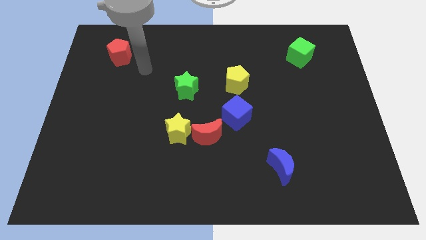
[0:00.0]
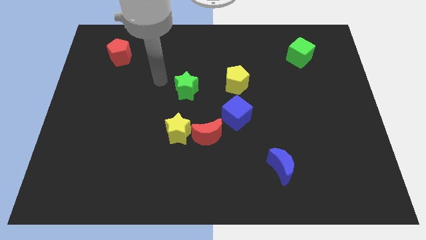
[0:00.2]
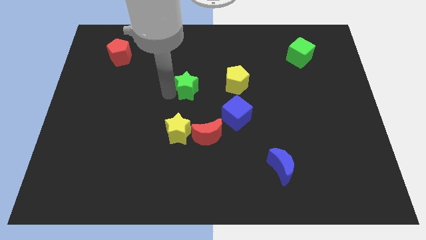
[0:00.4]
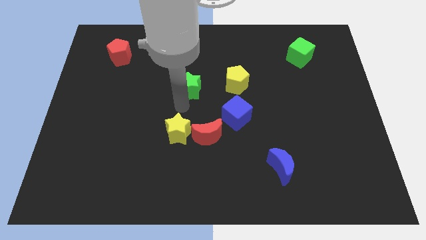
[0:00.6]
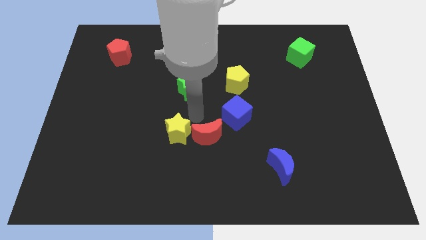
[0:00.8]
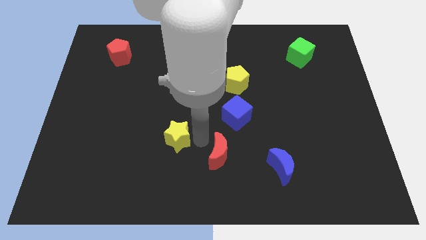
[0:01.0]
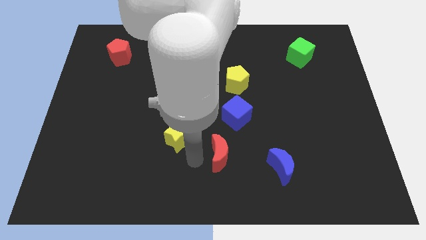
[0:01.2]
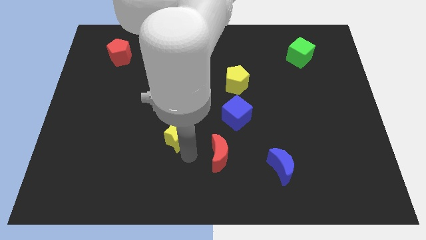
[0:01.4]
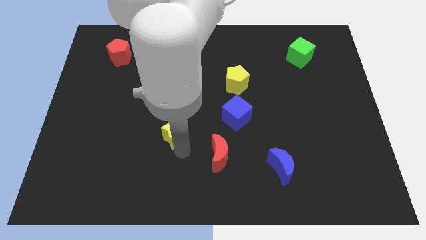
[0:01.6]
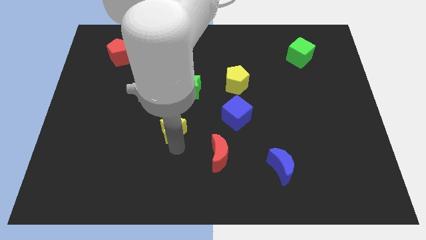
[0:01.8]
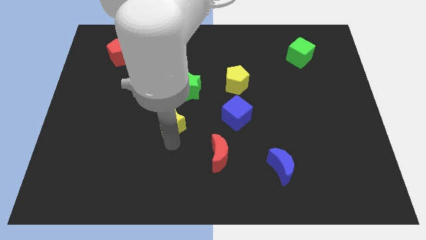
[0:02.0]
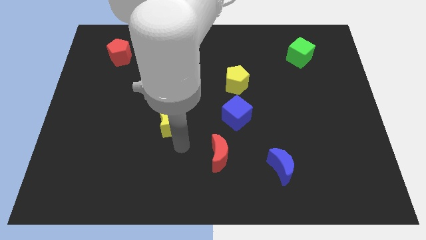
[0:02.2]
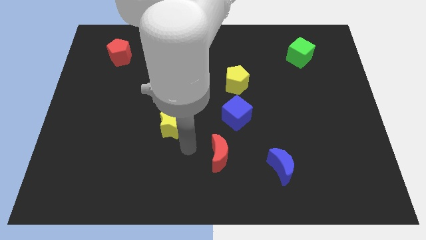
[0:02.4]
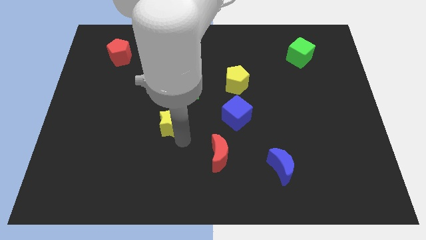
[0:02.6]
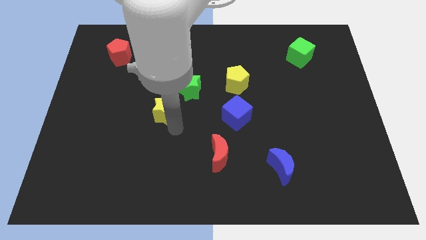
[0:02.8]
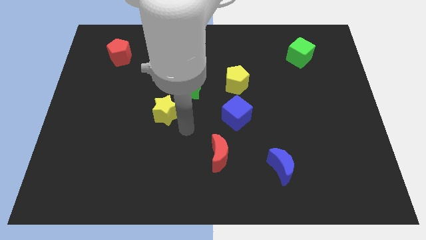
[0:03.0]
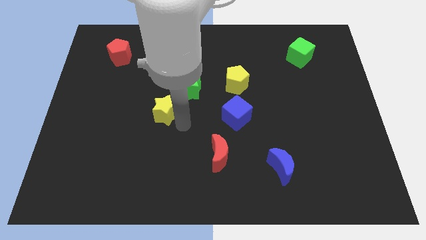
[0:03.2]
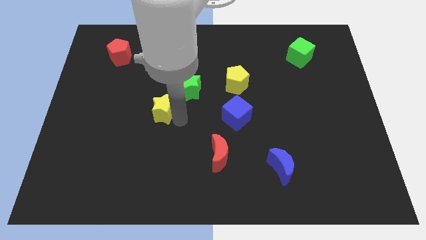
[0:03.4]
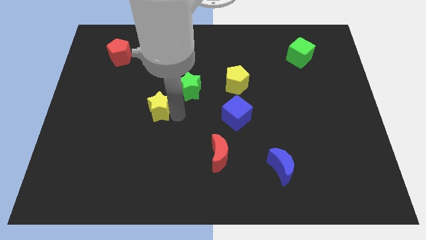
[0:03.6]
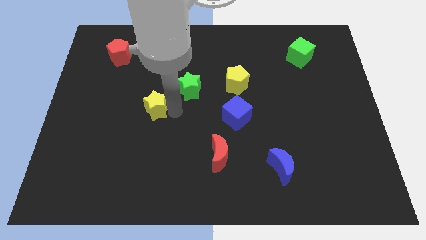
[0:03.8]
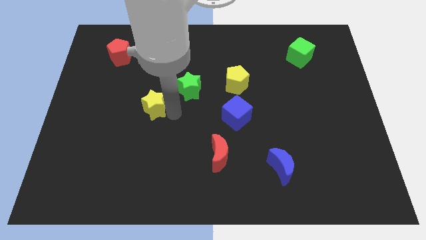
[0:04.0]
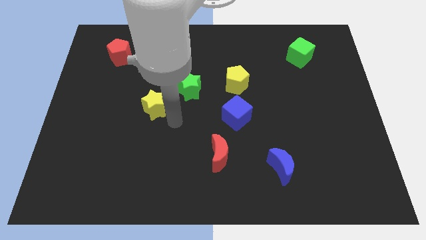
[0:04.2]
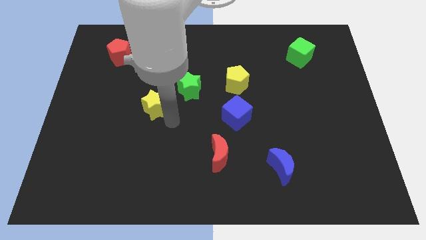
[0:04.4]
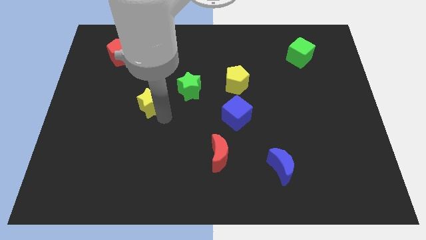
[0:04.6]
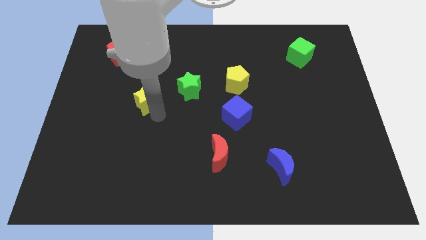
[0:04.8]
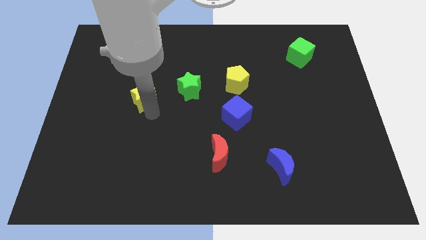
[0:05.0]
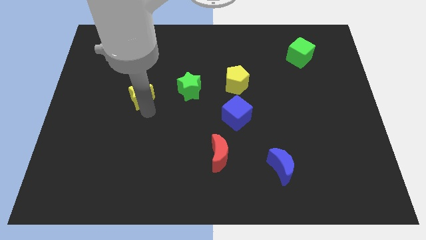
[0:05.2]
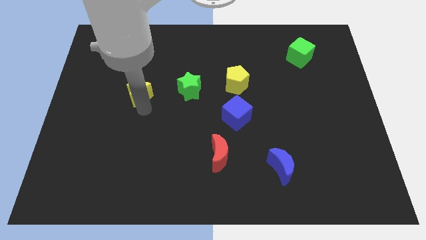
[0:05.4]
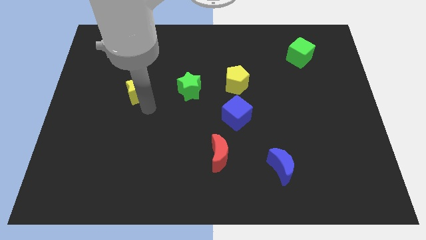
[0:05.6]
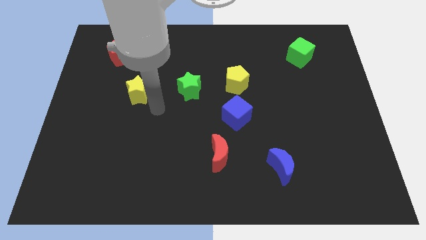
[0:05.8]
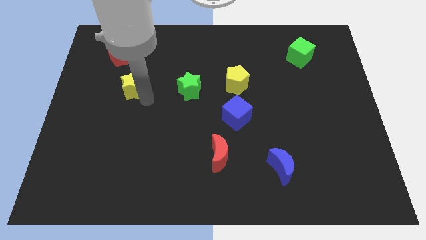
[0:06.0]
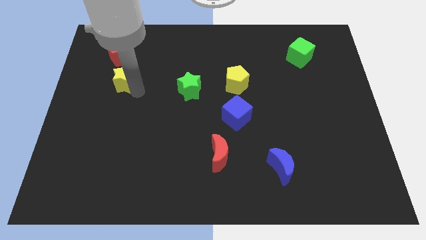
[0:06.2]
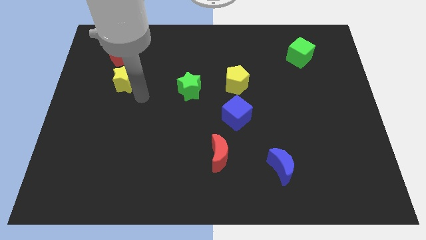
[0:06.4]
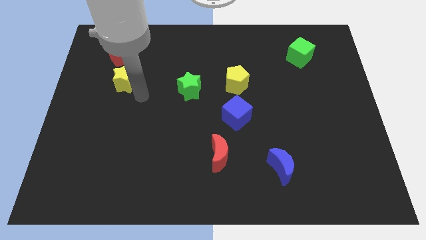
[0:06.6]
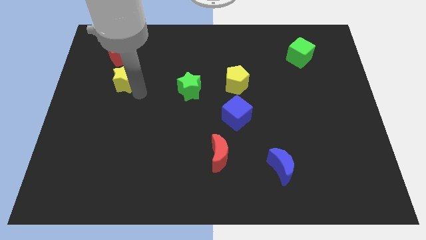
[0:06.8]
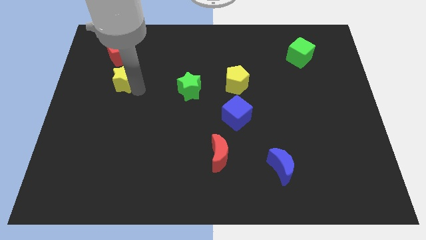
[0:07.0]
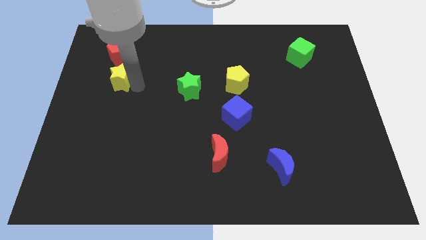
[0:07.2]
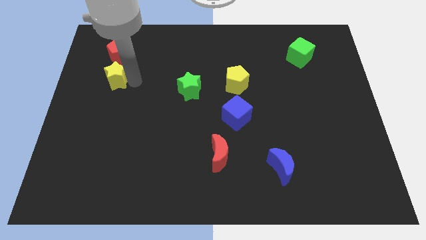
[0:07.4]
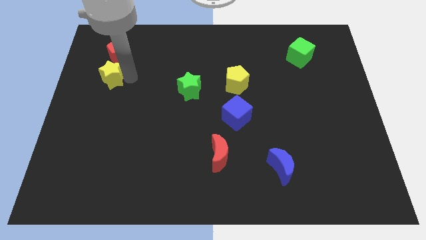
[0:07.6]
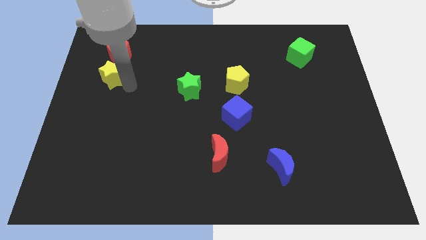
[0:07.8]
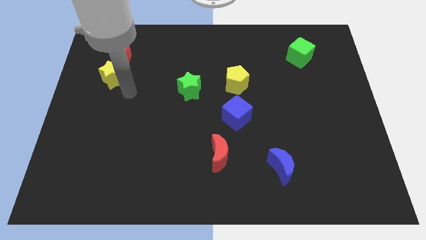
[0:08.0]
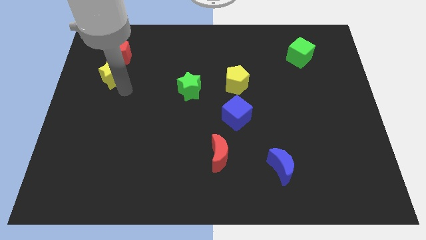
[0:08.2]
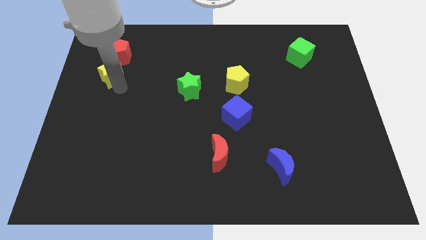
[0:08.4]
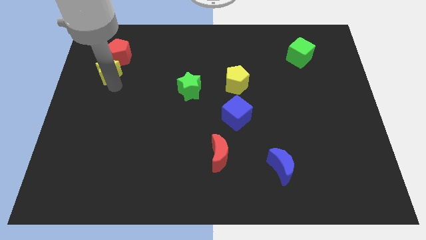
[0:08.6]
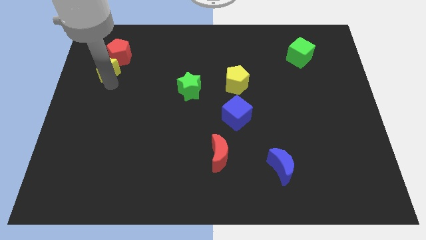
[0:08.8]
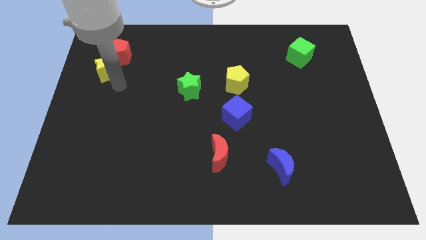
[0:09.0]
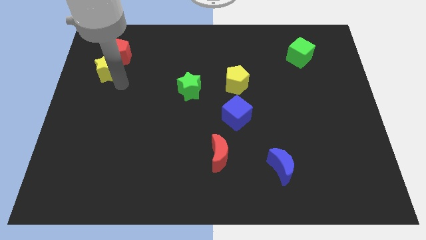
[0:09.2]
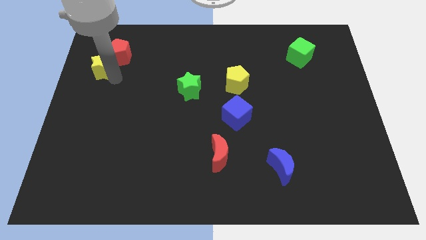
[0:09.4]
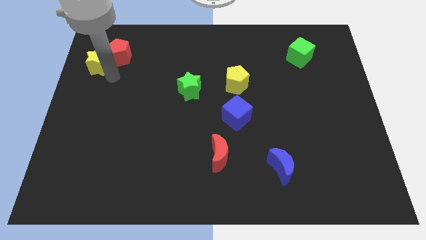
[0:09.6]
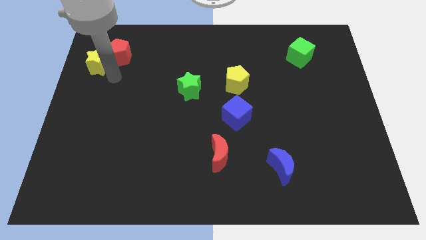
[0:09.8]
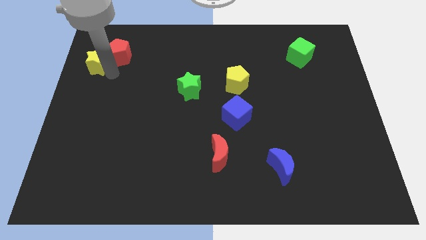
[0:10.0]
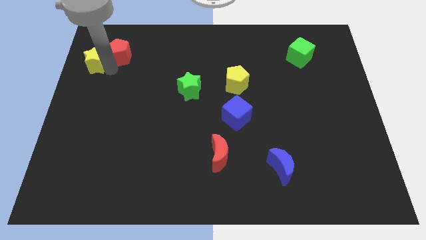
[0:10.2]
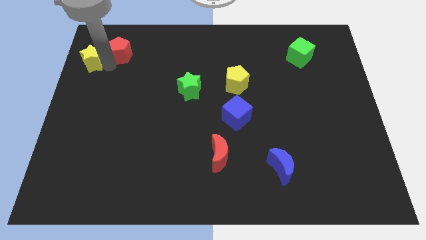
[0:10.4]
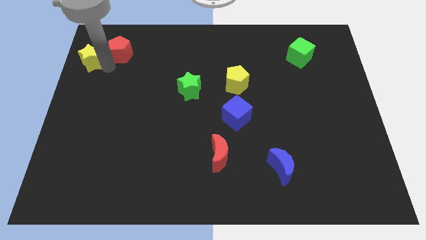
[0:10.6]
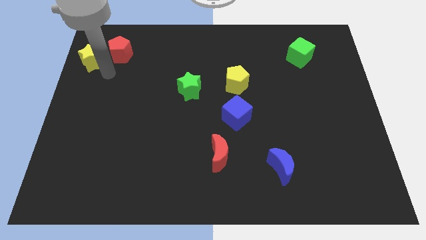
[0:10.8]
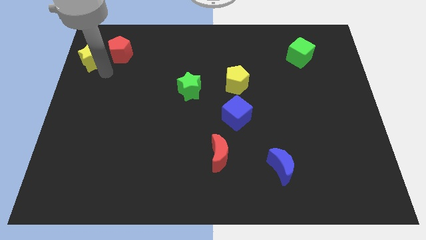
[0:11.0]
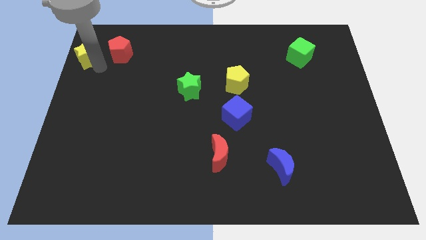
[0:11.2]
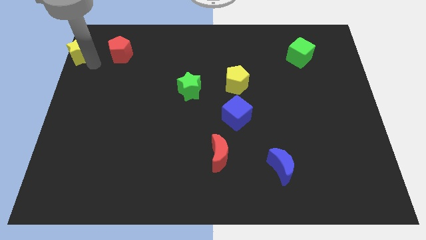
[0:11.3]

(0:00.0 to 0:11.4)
move the yellow star to the top left of the board
